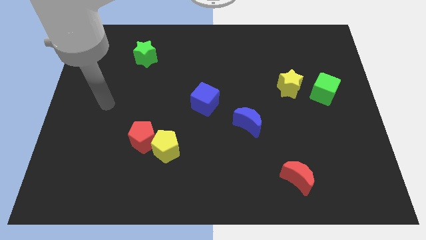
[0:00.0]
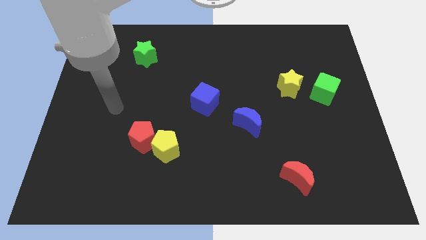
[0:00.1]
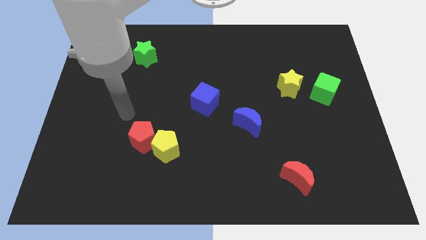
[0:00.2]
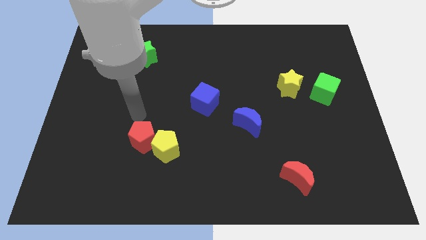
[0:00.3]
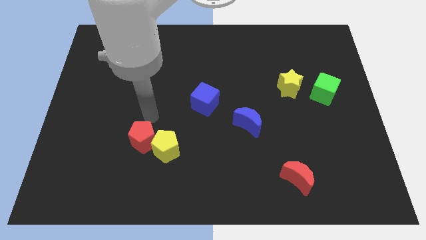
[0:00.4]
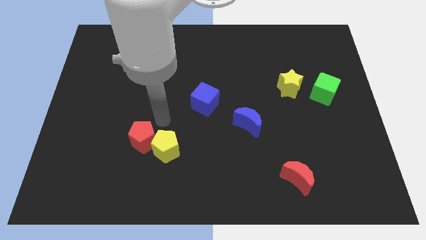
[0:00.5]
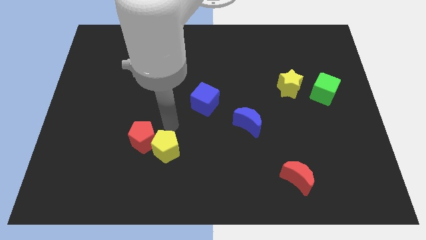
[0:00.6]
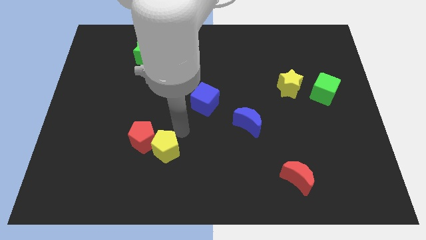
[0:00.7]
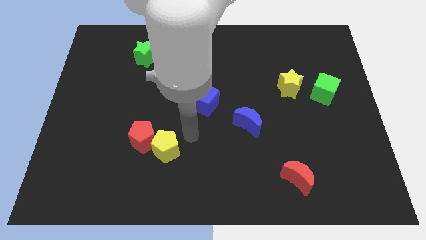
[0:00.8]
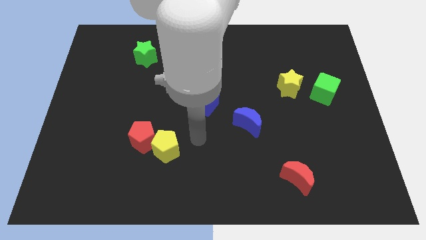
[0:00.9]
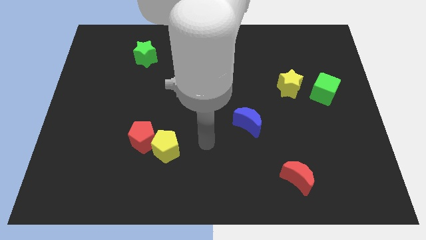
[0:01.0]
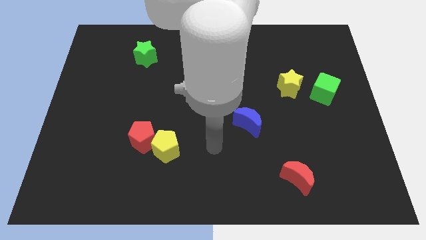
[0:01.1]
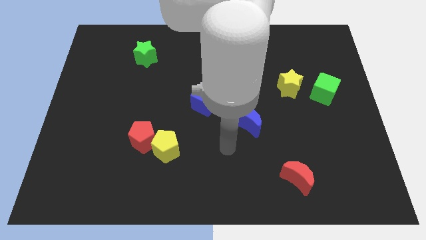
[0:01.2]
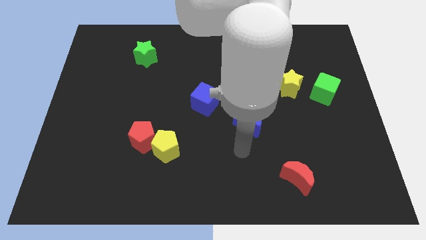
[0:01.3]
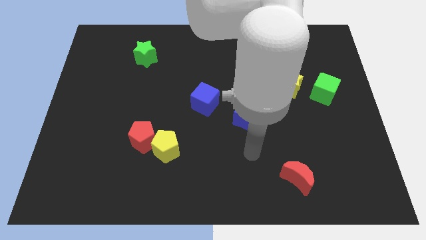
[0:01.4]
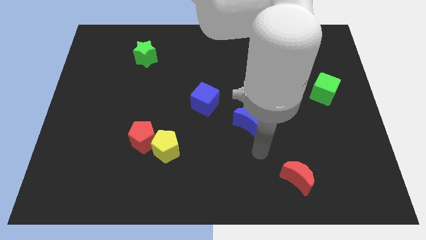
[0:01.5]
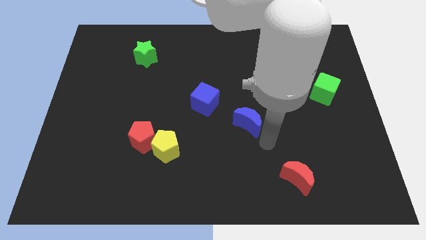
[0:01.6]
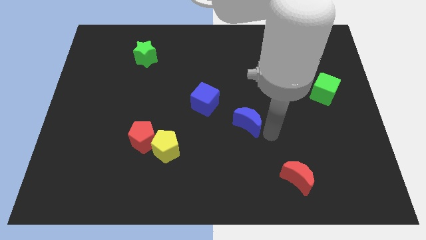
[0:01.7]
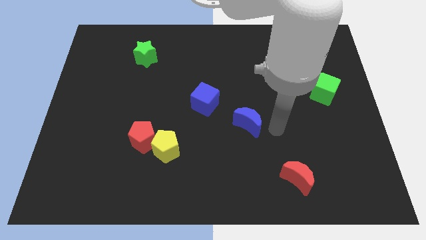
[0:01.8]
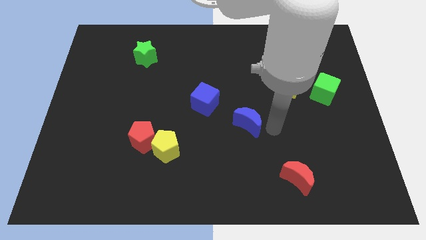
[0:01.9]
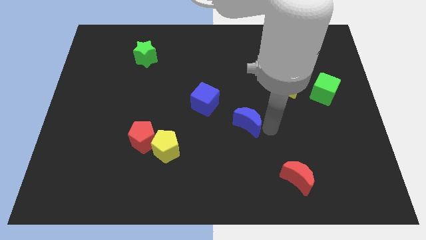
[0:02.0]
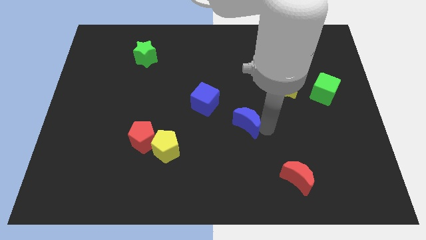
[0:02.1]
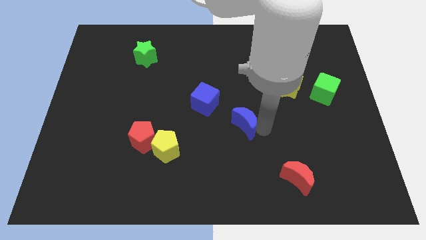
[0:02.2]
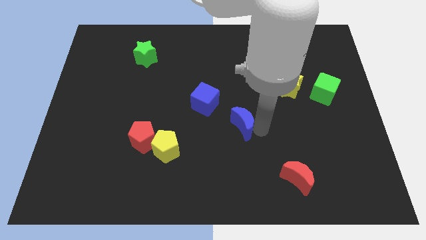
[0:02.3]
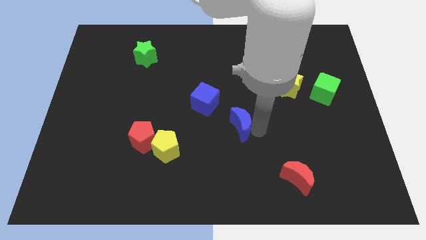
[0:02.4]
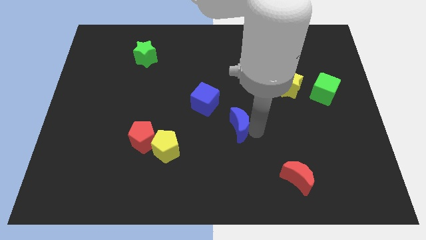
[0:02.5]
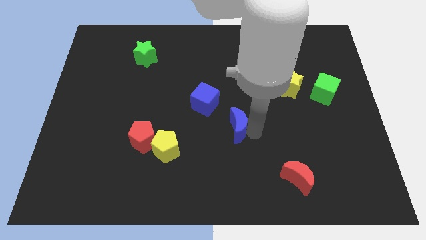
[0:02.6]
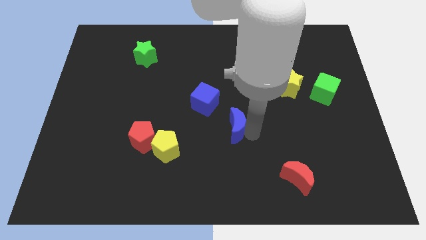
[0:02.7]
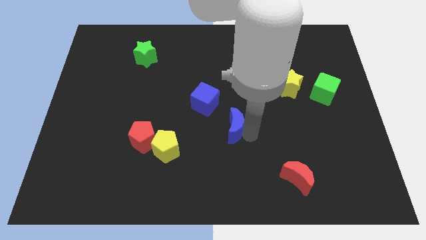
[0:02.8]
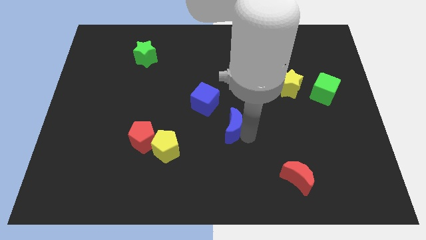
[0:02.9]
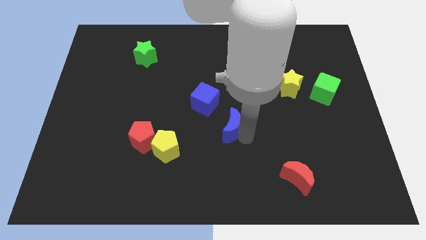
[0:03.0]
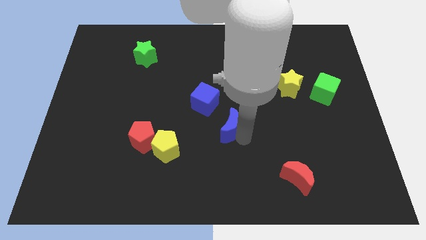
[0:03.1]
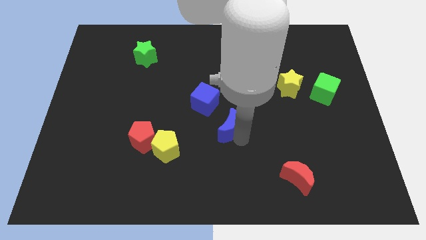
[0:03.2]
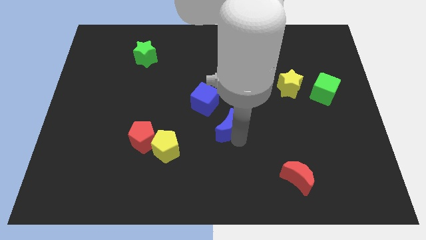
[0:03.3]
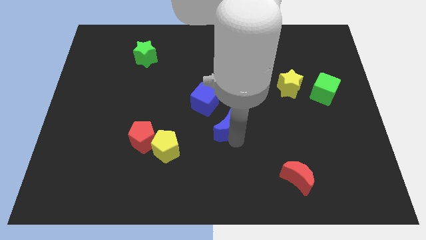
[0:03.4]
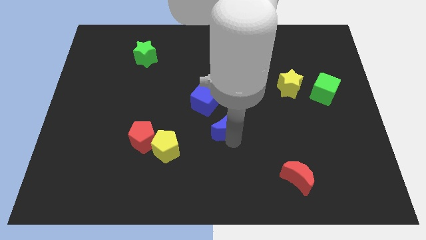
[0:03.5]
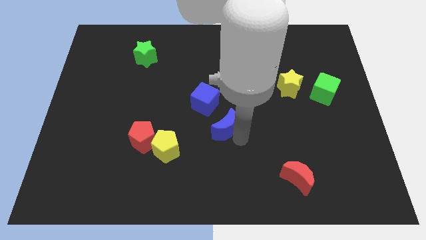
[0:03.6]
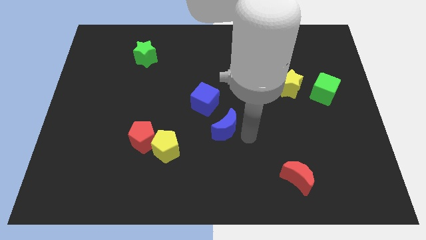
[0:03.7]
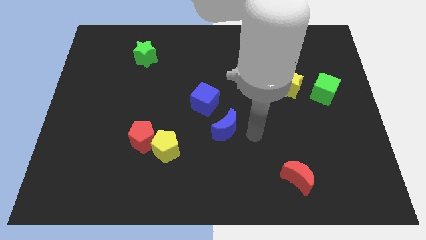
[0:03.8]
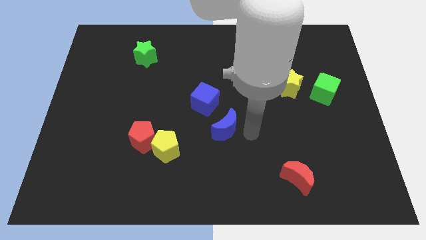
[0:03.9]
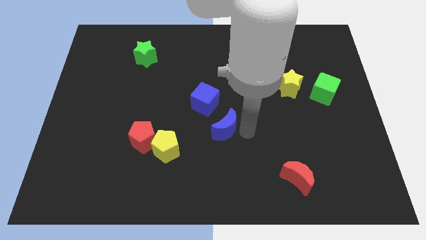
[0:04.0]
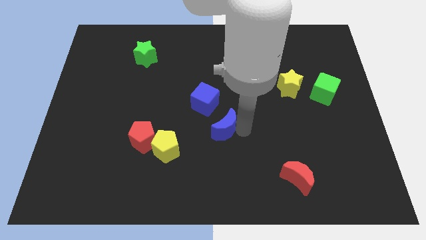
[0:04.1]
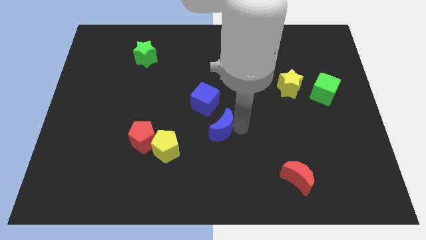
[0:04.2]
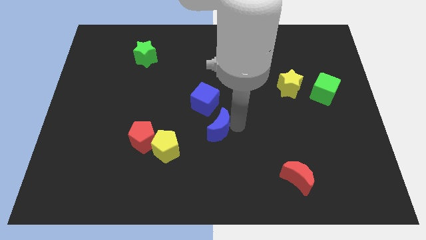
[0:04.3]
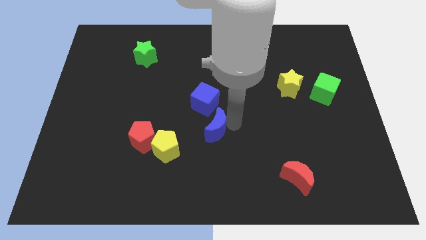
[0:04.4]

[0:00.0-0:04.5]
slide the blue moon left somewhat

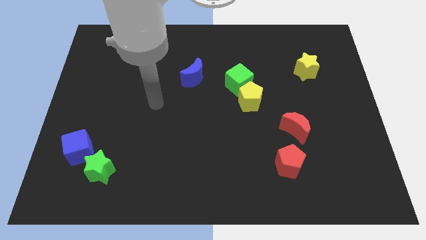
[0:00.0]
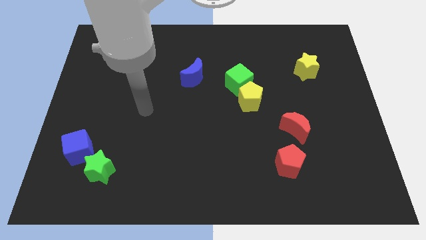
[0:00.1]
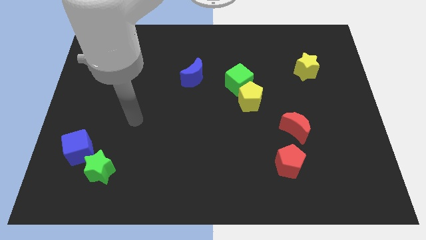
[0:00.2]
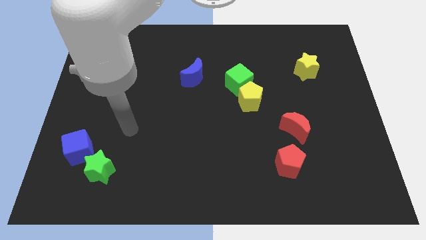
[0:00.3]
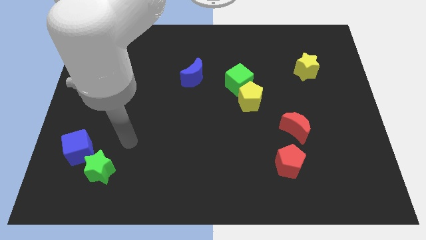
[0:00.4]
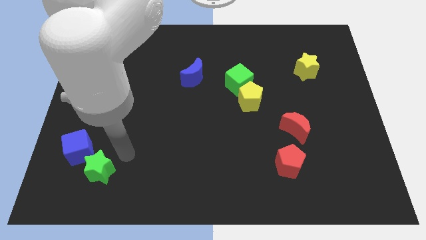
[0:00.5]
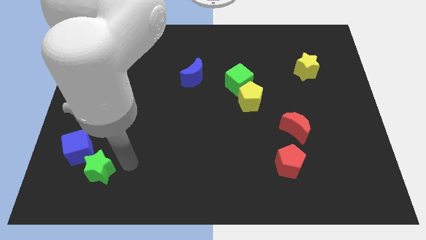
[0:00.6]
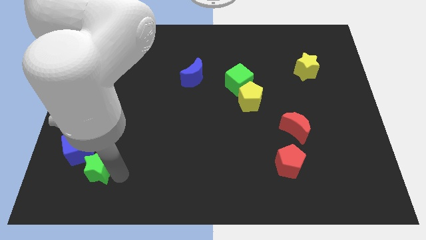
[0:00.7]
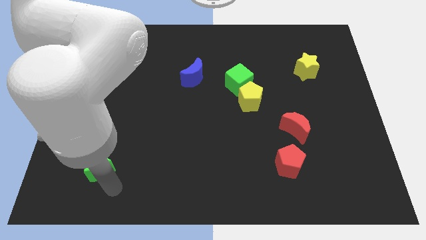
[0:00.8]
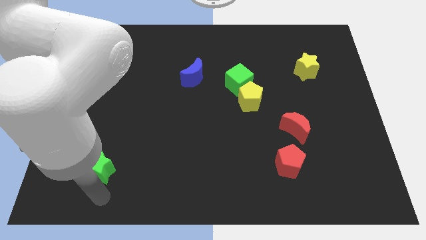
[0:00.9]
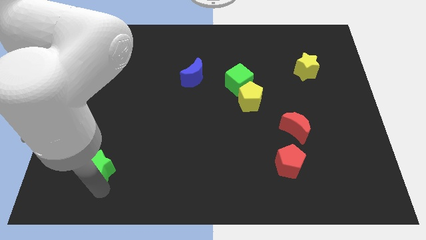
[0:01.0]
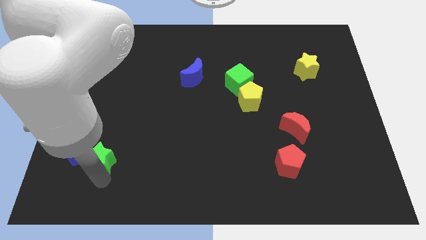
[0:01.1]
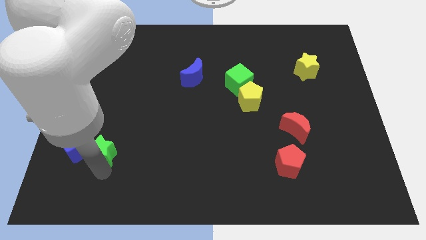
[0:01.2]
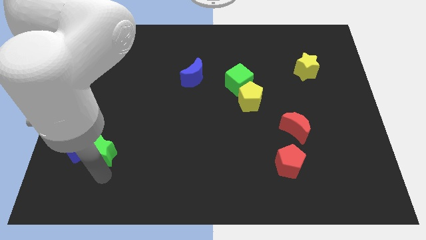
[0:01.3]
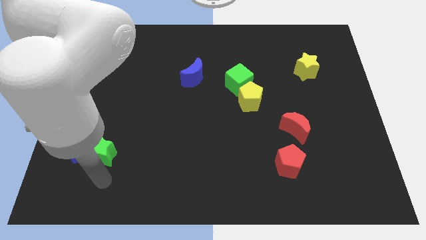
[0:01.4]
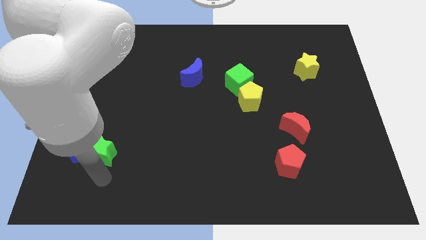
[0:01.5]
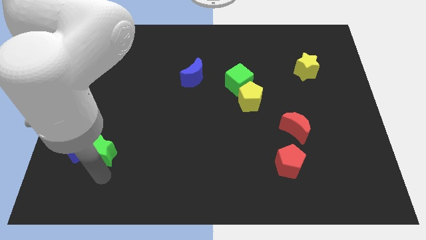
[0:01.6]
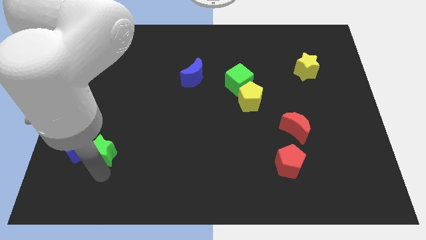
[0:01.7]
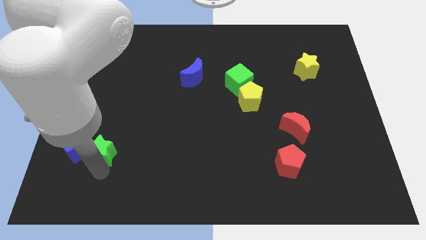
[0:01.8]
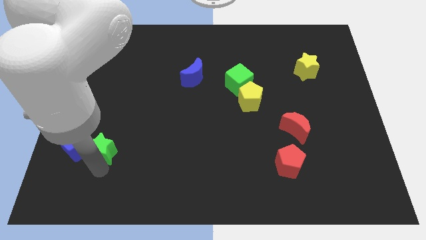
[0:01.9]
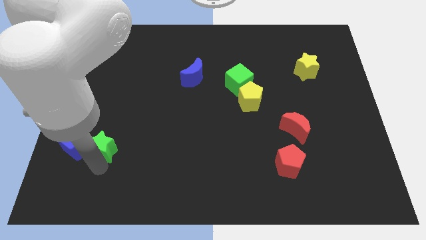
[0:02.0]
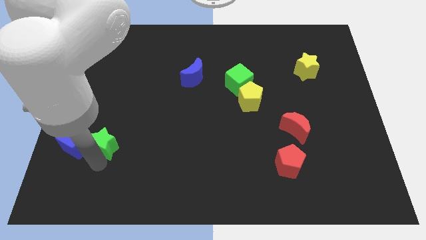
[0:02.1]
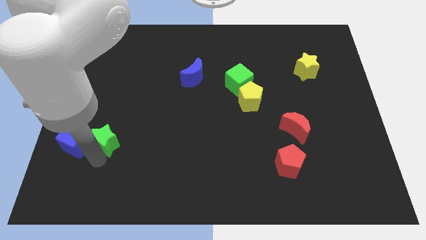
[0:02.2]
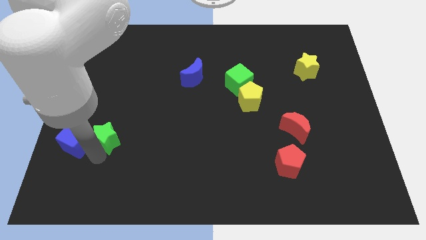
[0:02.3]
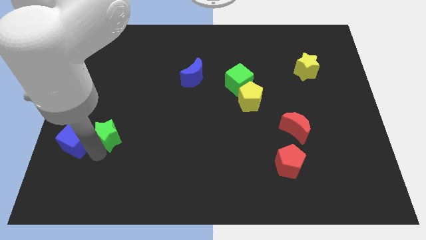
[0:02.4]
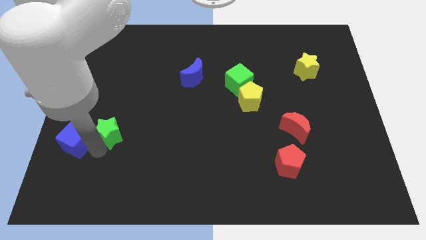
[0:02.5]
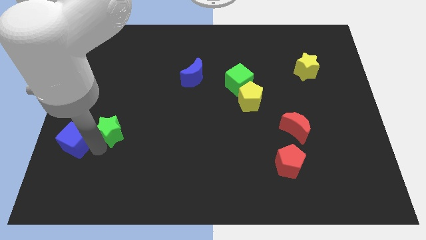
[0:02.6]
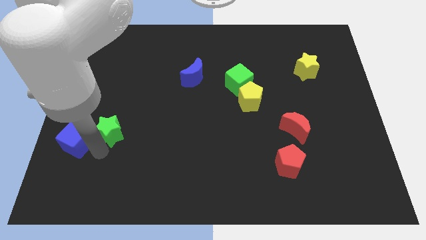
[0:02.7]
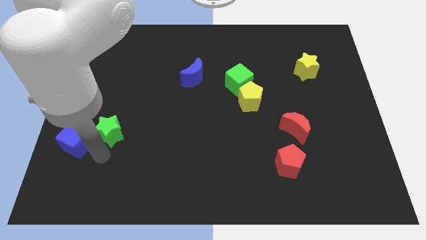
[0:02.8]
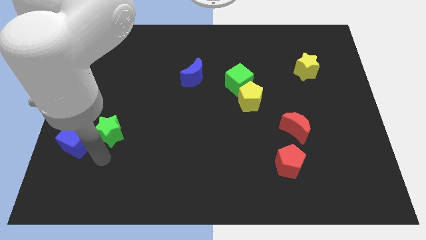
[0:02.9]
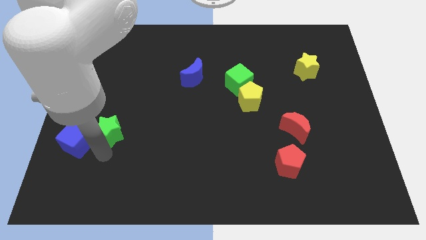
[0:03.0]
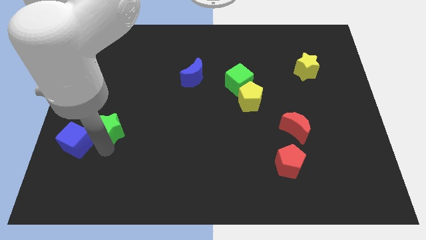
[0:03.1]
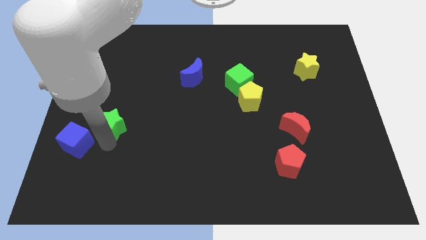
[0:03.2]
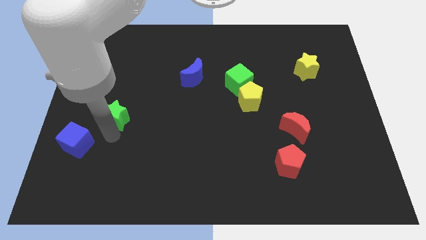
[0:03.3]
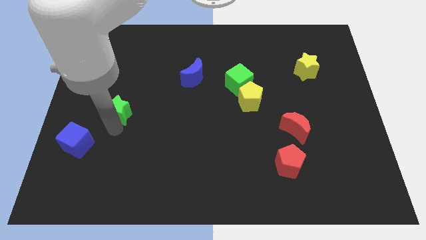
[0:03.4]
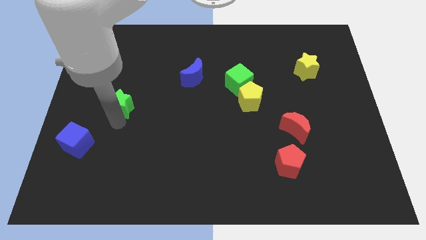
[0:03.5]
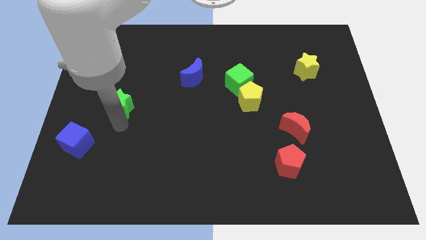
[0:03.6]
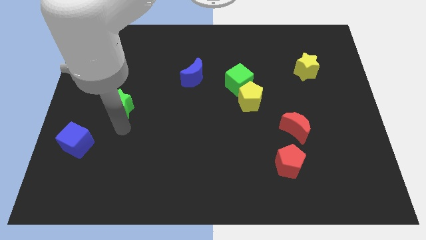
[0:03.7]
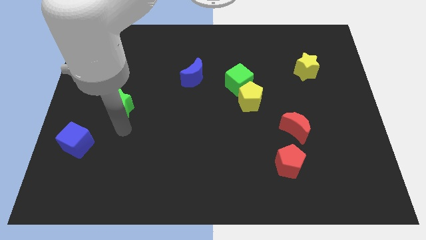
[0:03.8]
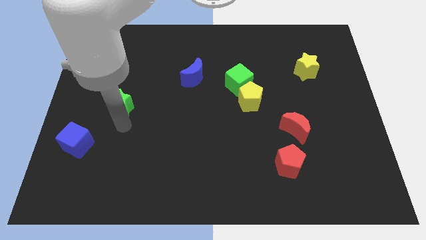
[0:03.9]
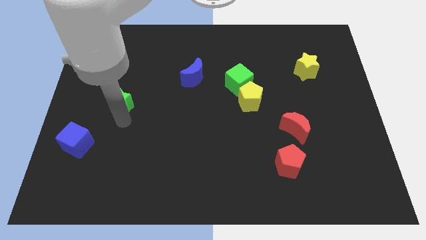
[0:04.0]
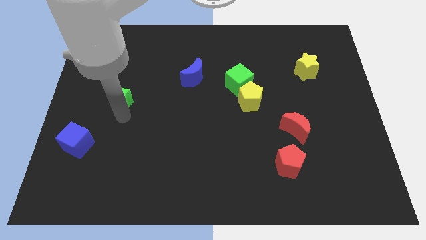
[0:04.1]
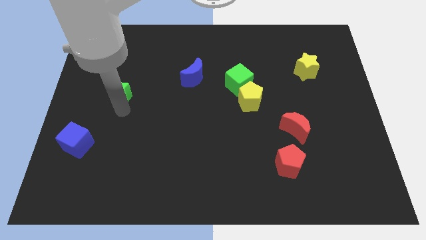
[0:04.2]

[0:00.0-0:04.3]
push the green star up
